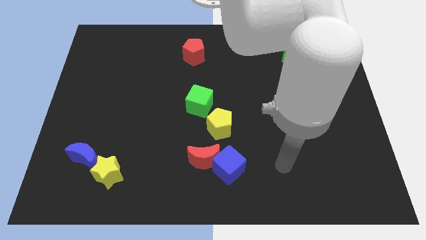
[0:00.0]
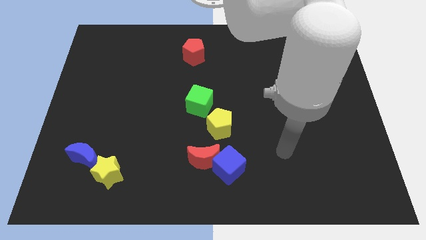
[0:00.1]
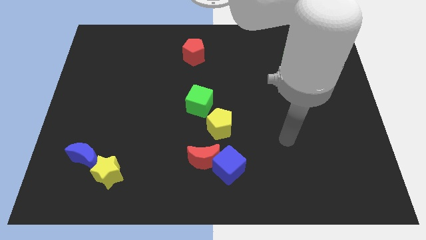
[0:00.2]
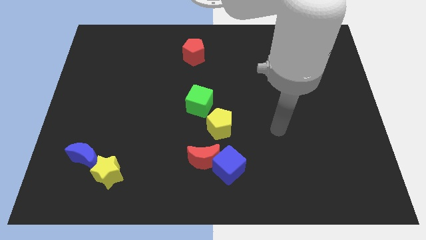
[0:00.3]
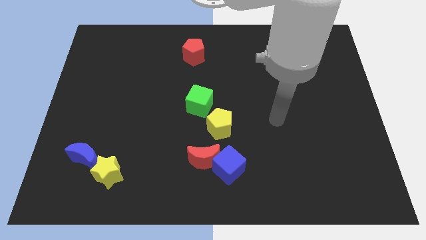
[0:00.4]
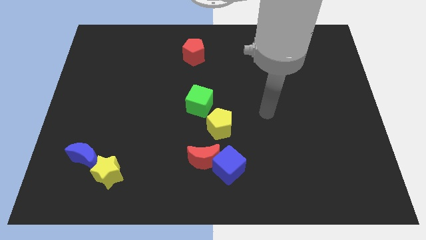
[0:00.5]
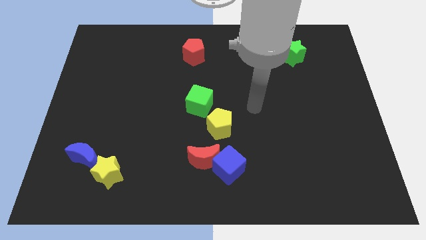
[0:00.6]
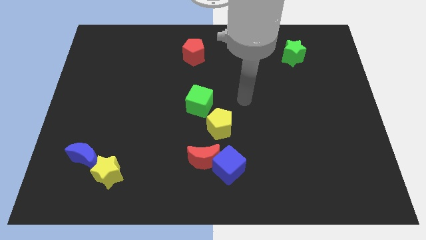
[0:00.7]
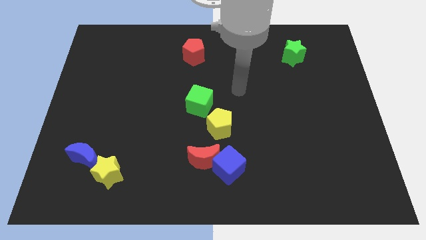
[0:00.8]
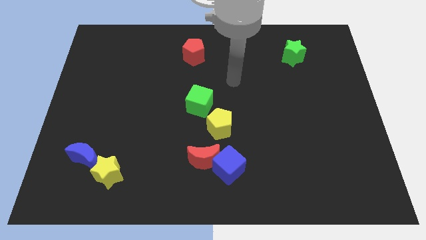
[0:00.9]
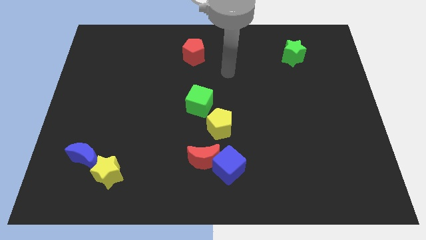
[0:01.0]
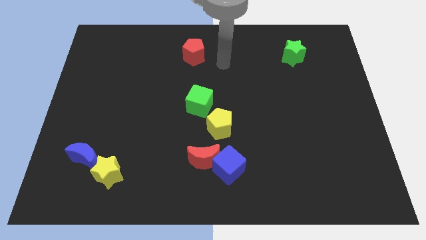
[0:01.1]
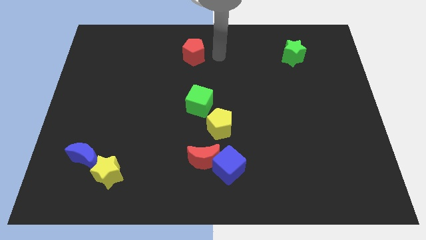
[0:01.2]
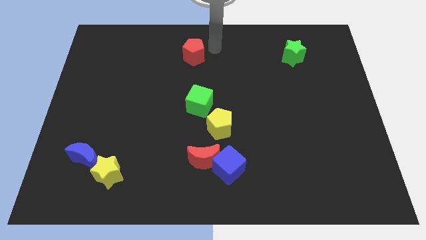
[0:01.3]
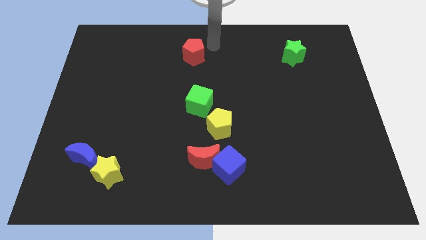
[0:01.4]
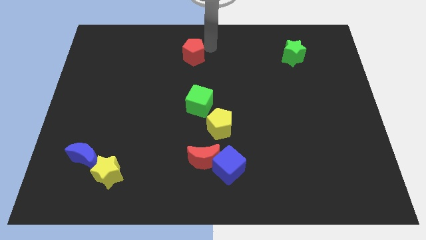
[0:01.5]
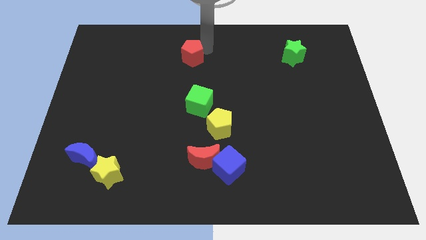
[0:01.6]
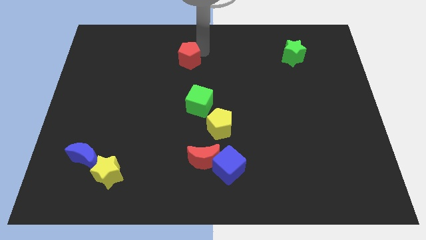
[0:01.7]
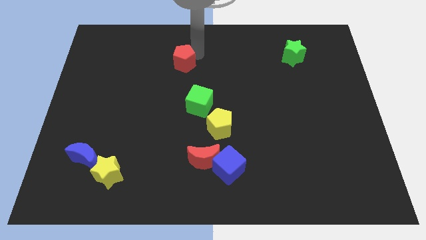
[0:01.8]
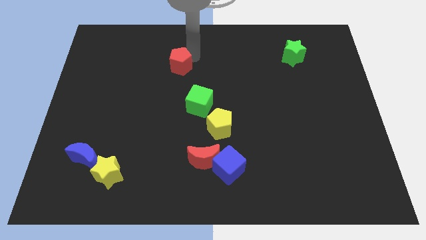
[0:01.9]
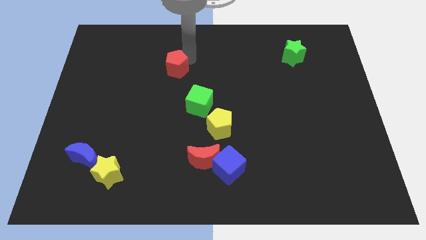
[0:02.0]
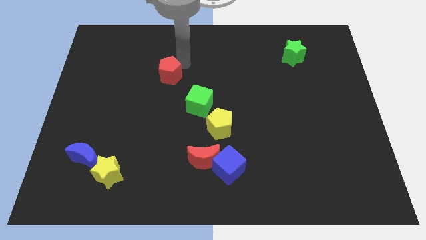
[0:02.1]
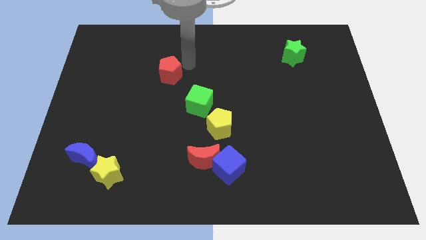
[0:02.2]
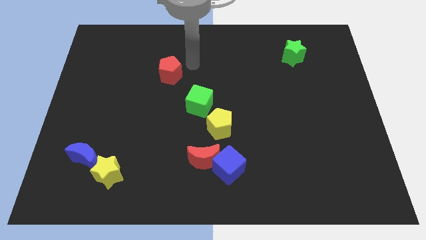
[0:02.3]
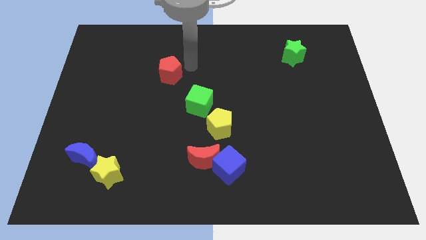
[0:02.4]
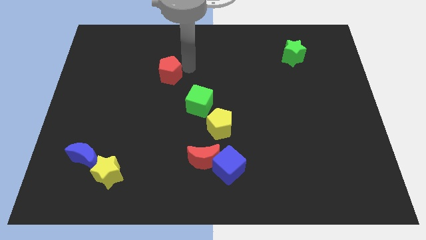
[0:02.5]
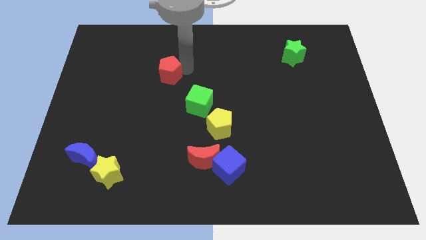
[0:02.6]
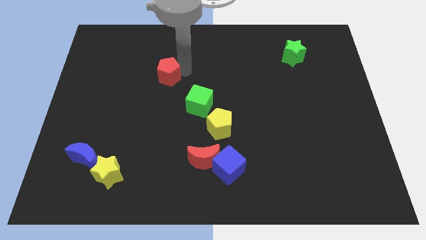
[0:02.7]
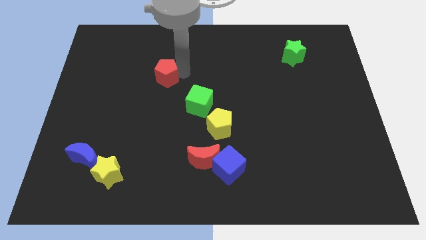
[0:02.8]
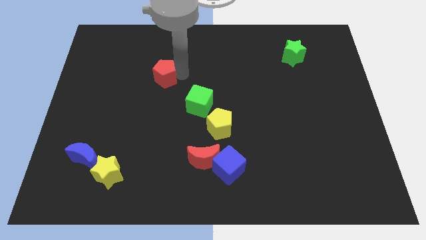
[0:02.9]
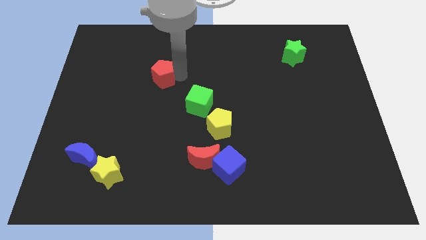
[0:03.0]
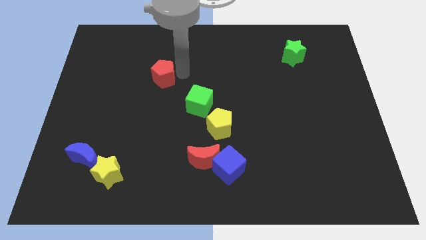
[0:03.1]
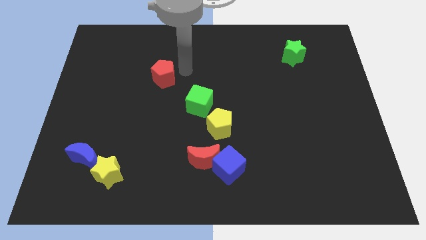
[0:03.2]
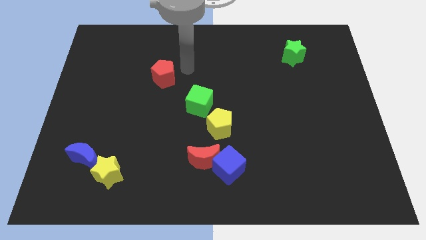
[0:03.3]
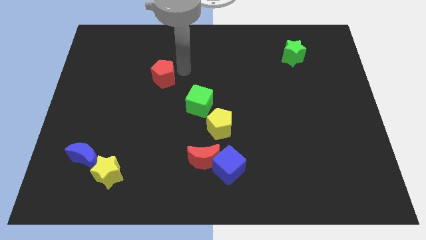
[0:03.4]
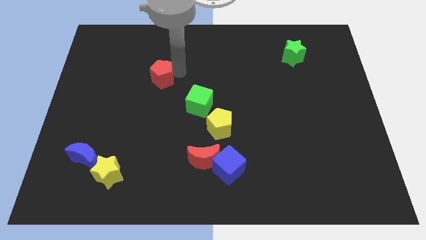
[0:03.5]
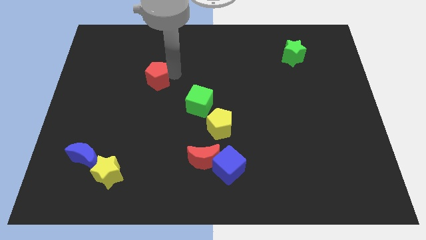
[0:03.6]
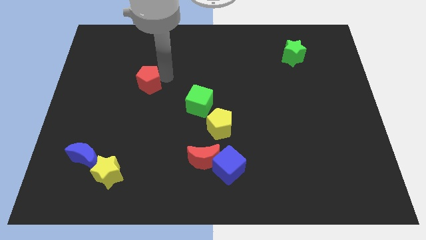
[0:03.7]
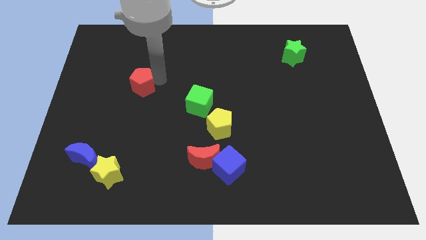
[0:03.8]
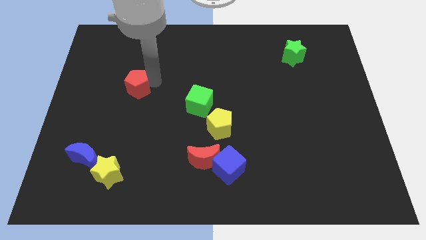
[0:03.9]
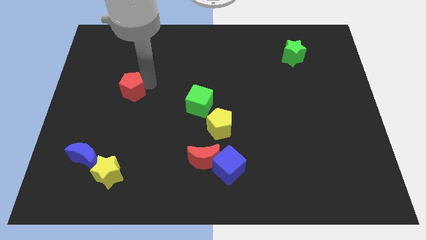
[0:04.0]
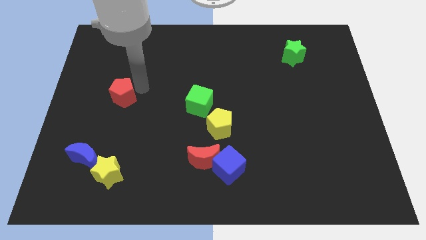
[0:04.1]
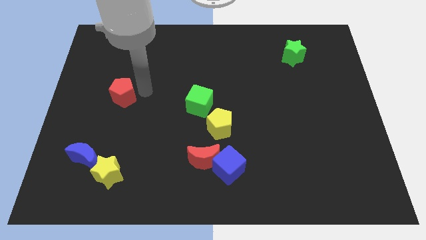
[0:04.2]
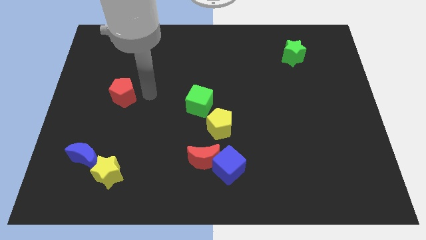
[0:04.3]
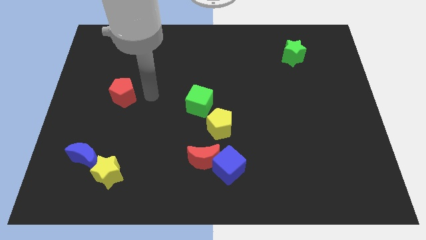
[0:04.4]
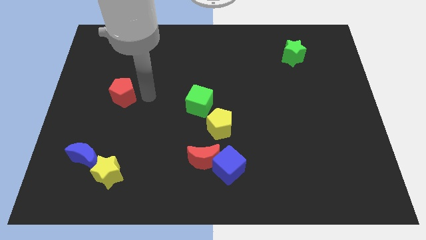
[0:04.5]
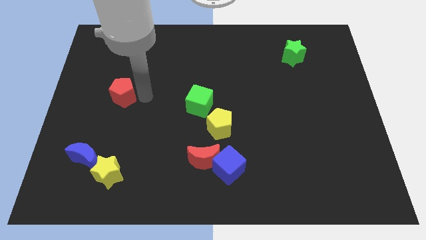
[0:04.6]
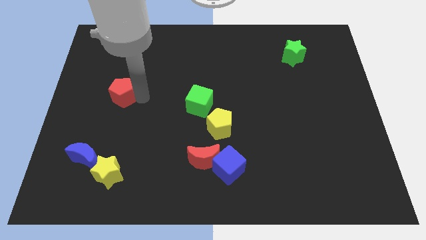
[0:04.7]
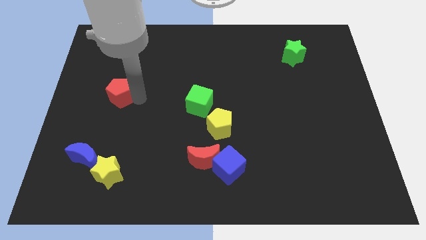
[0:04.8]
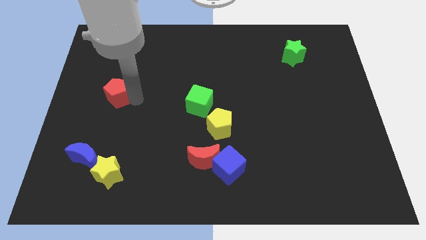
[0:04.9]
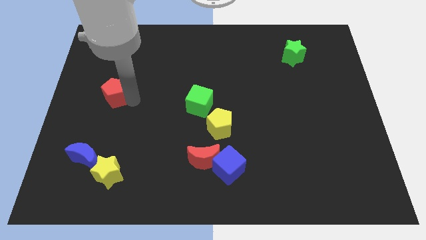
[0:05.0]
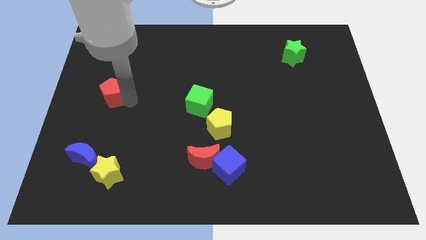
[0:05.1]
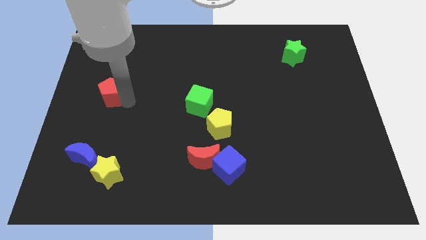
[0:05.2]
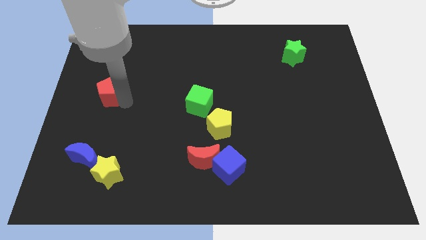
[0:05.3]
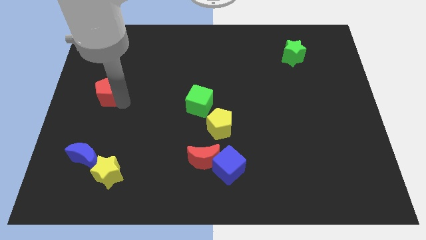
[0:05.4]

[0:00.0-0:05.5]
put the red pentagon to the center left
